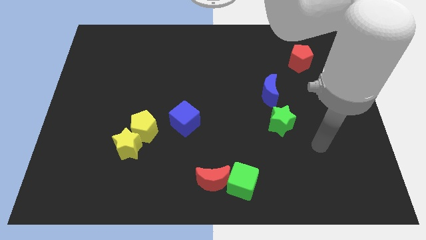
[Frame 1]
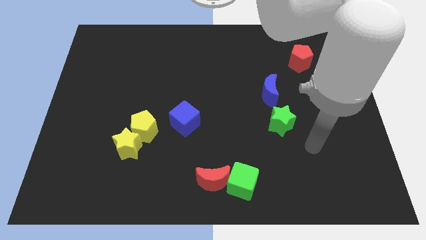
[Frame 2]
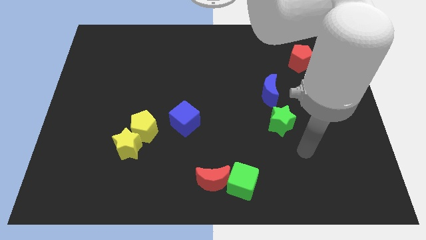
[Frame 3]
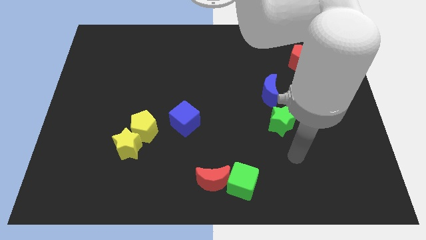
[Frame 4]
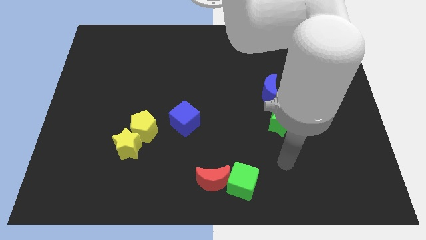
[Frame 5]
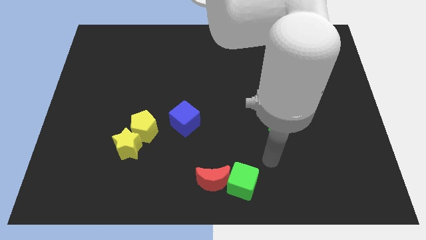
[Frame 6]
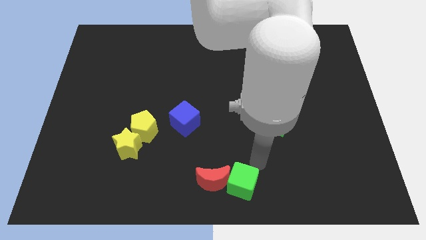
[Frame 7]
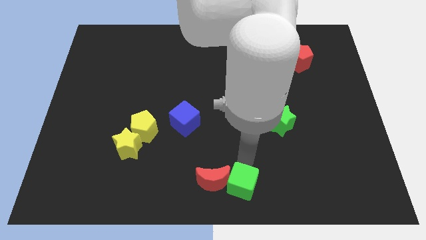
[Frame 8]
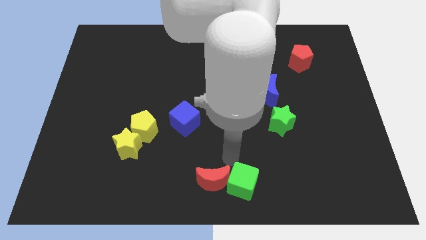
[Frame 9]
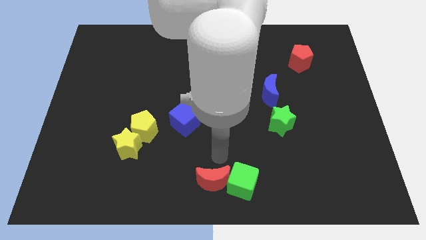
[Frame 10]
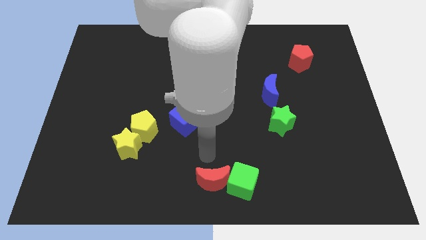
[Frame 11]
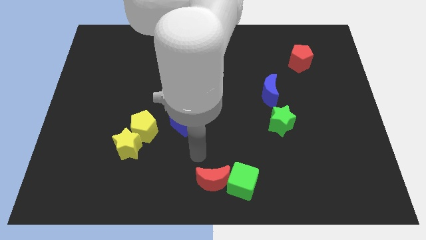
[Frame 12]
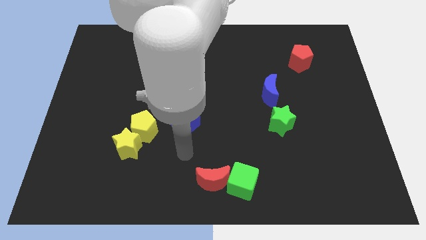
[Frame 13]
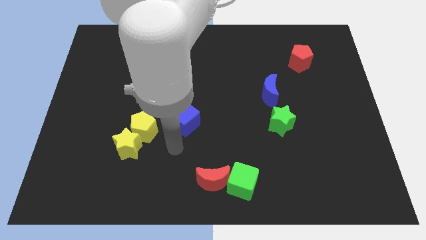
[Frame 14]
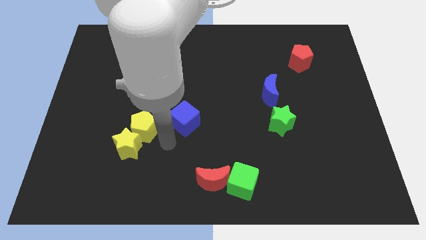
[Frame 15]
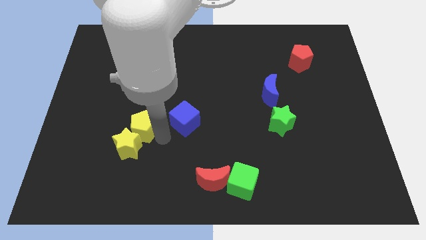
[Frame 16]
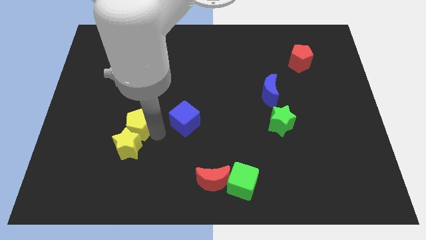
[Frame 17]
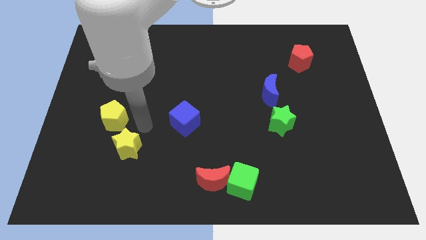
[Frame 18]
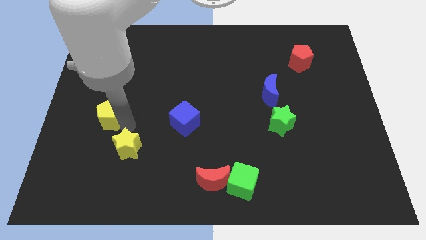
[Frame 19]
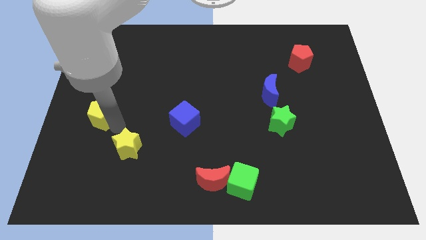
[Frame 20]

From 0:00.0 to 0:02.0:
move the yellow star away from the yellow pentagon

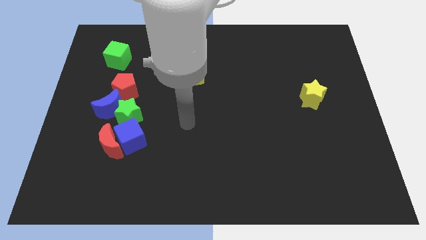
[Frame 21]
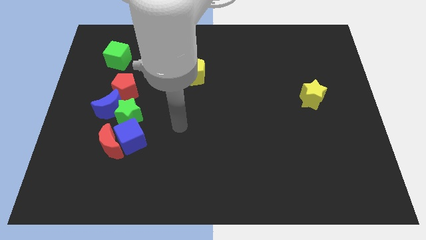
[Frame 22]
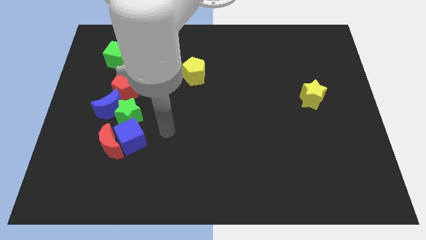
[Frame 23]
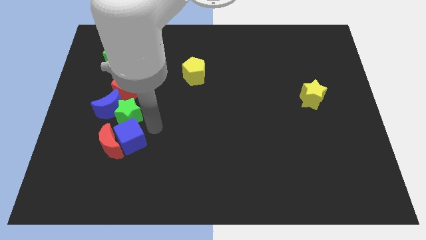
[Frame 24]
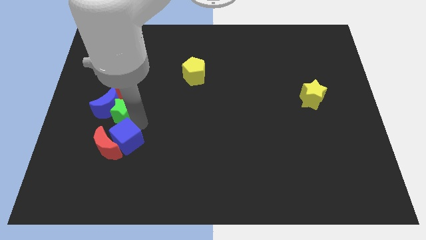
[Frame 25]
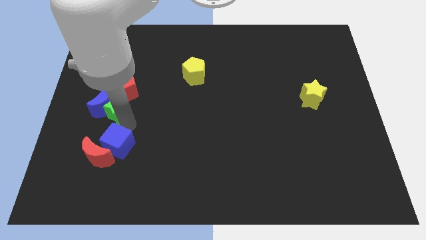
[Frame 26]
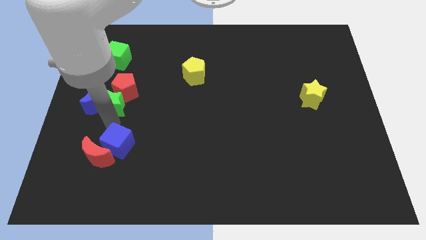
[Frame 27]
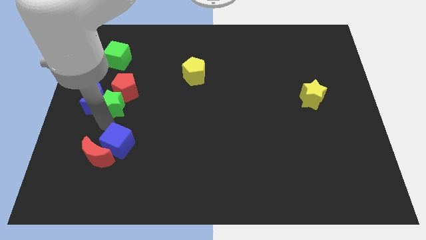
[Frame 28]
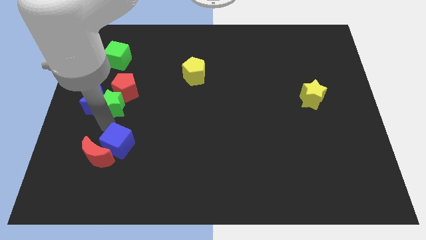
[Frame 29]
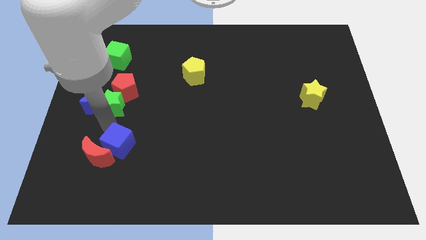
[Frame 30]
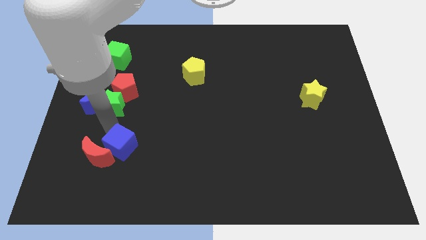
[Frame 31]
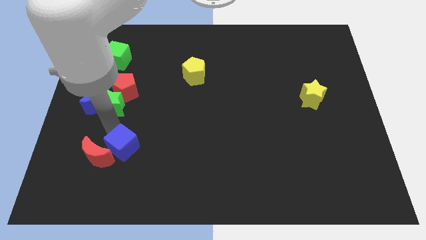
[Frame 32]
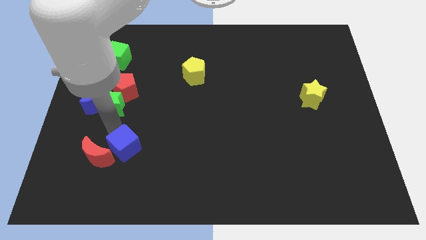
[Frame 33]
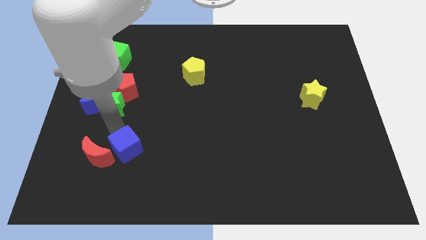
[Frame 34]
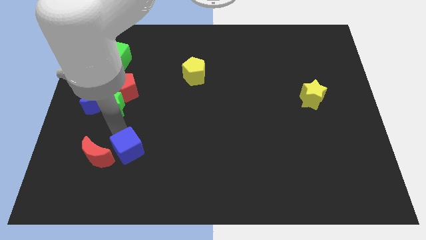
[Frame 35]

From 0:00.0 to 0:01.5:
pull the blue cube apart from the red moon, green star, and blue moon

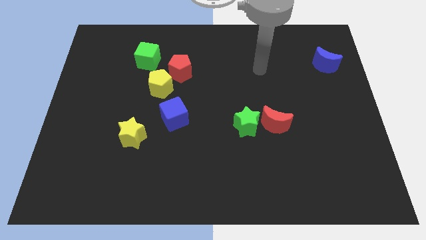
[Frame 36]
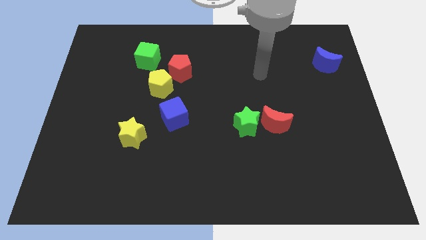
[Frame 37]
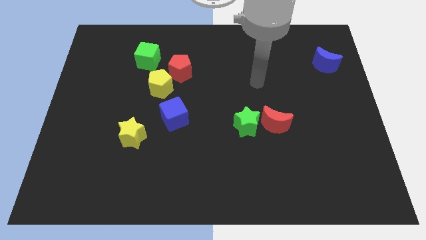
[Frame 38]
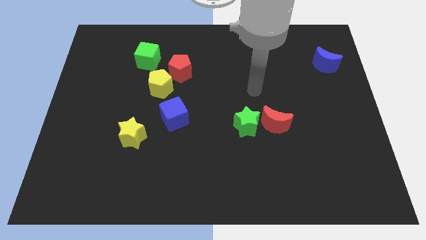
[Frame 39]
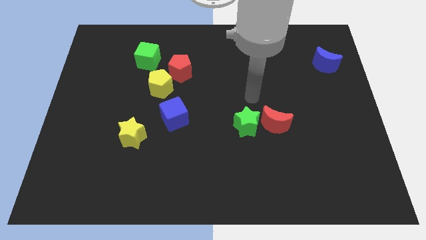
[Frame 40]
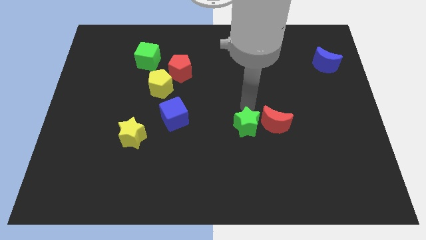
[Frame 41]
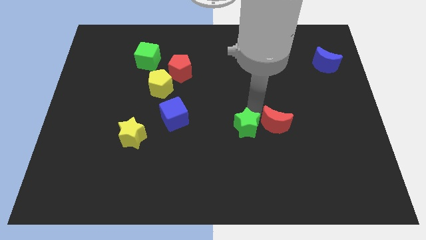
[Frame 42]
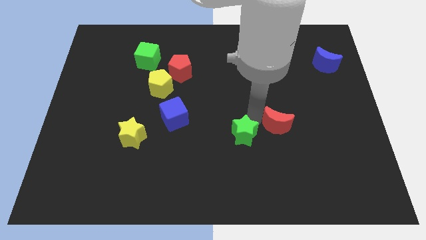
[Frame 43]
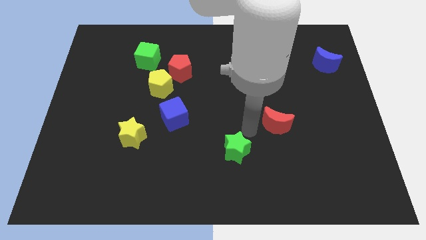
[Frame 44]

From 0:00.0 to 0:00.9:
pull the red moon apart from the green star

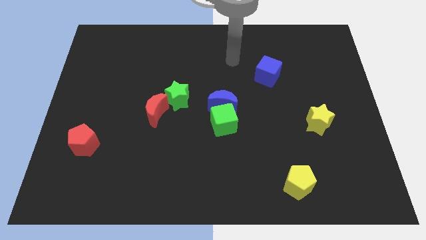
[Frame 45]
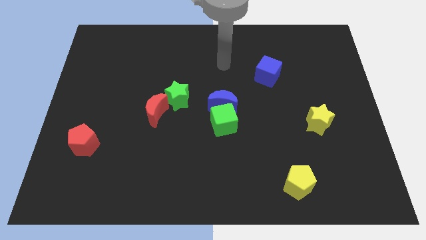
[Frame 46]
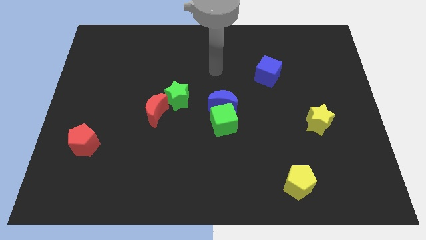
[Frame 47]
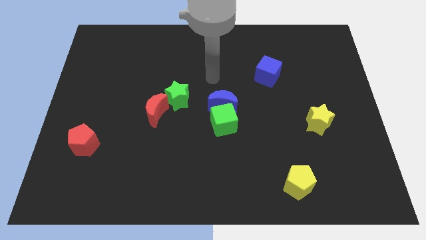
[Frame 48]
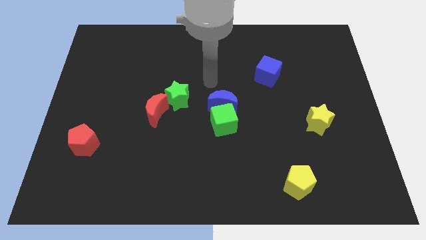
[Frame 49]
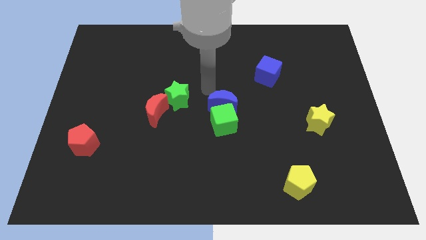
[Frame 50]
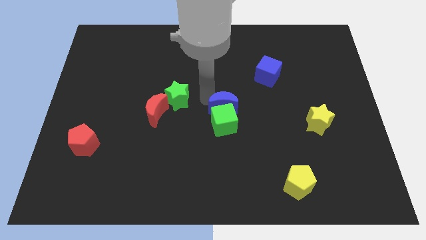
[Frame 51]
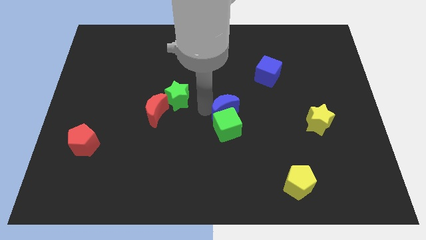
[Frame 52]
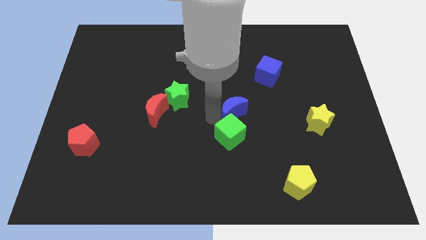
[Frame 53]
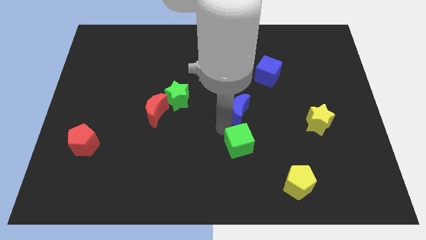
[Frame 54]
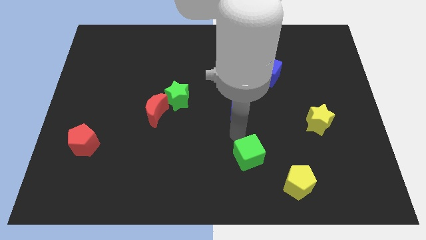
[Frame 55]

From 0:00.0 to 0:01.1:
move the blue moon away from the green cube

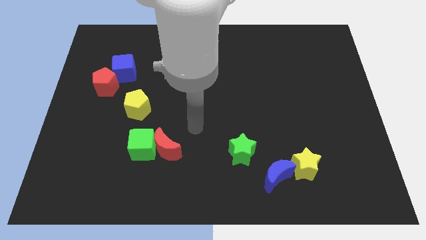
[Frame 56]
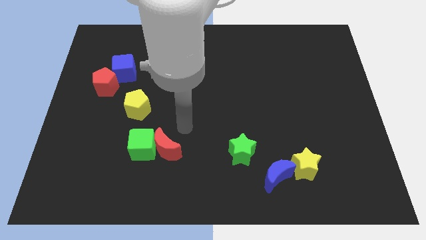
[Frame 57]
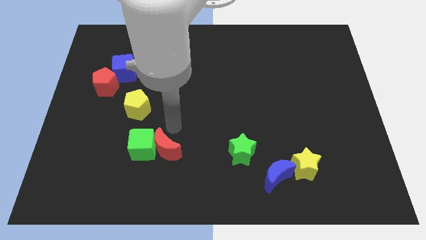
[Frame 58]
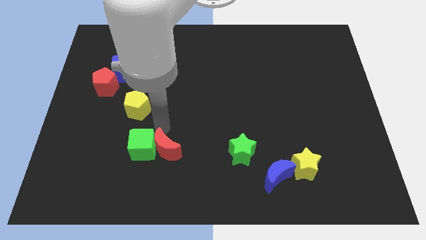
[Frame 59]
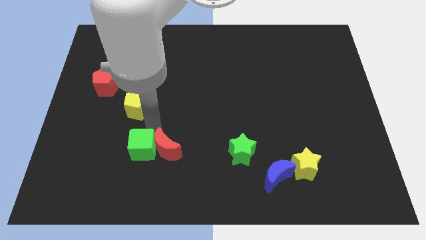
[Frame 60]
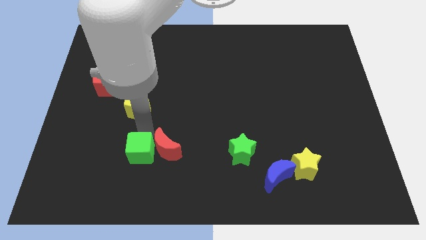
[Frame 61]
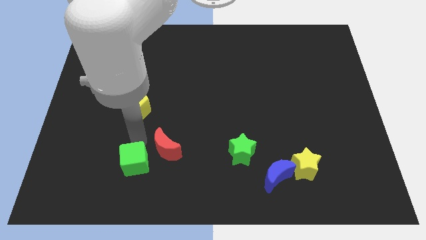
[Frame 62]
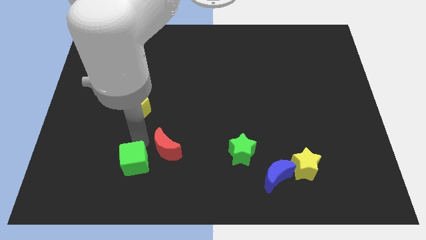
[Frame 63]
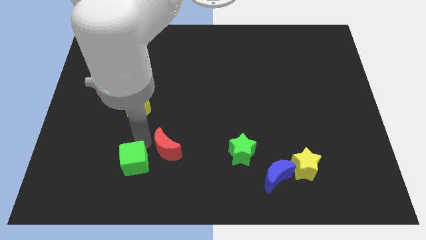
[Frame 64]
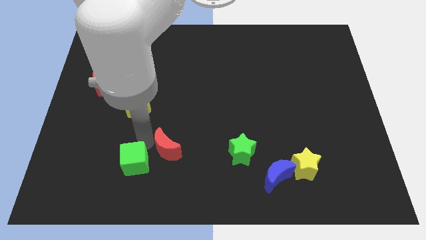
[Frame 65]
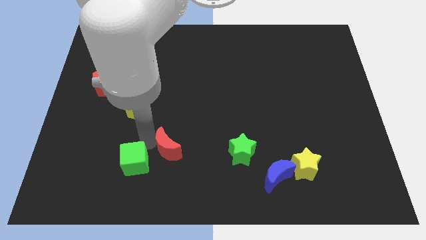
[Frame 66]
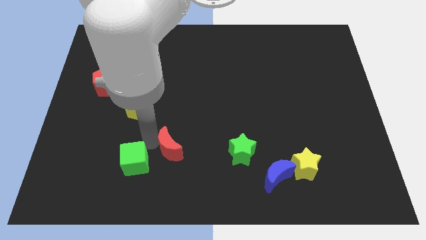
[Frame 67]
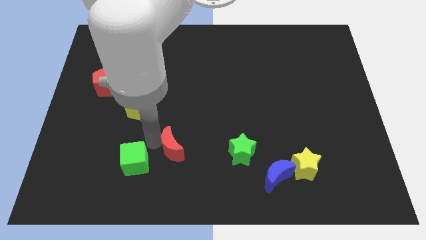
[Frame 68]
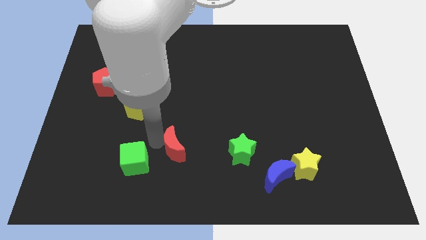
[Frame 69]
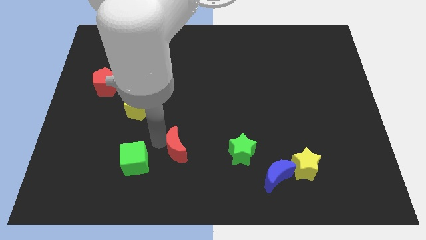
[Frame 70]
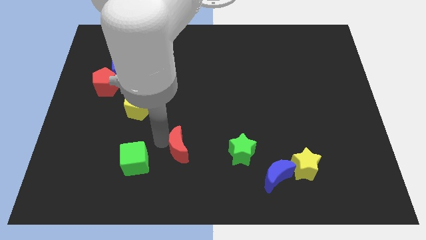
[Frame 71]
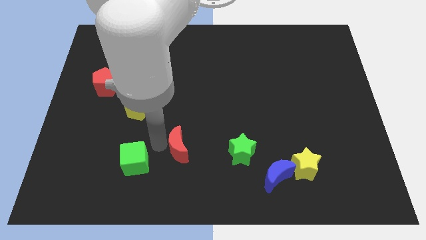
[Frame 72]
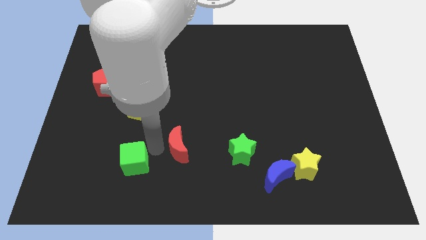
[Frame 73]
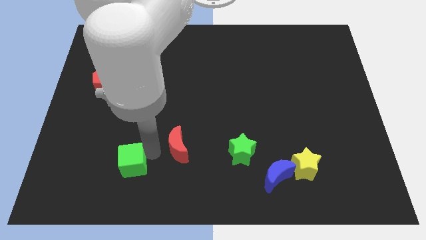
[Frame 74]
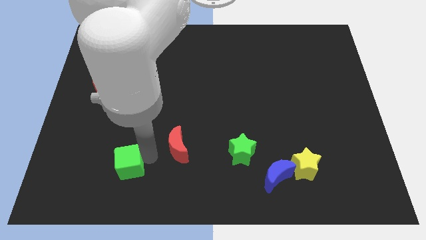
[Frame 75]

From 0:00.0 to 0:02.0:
separate the red moon from the green cube

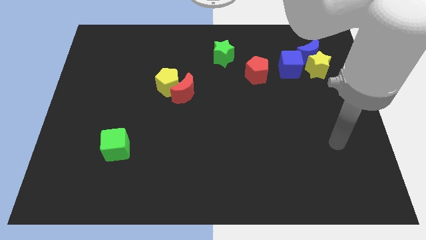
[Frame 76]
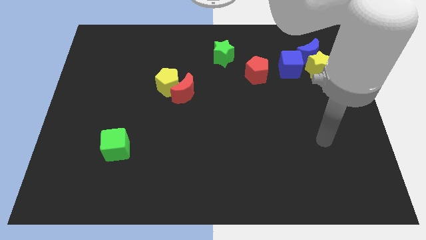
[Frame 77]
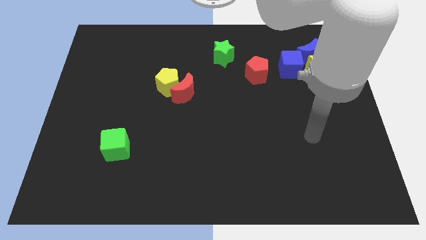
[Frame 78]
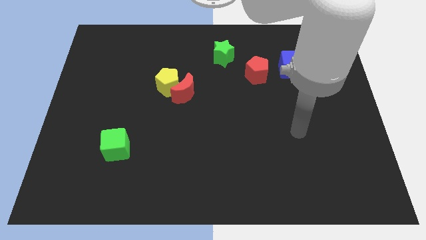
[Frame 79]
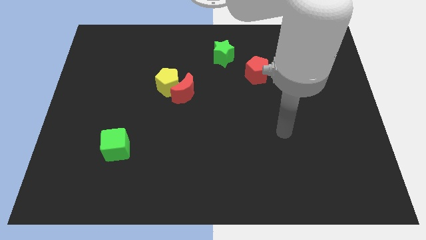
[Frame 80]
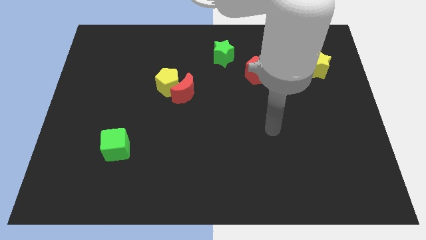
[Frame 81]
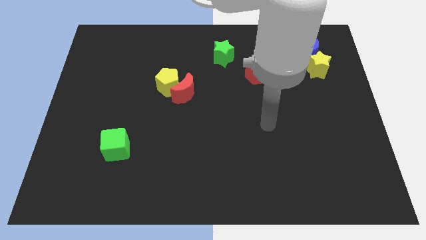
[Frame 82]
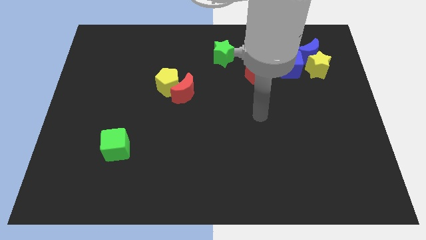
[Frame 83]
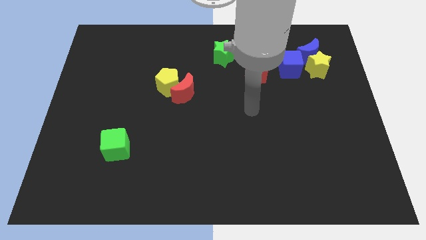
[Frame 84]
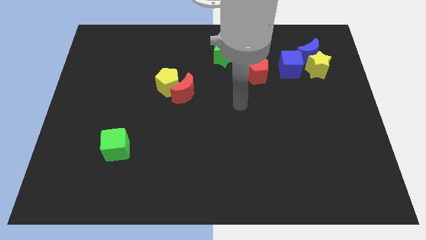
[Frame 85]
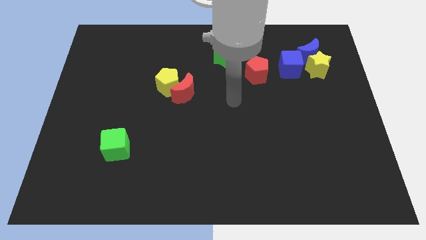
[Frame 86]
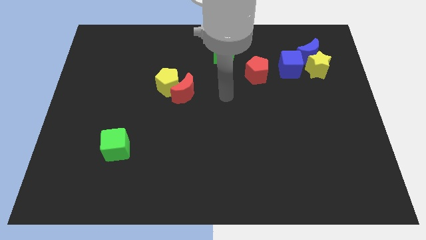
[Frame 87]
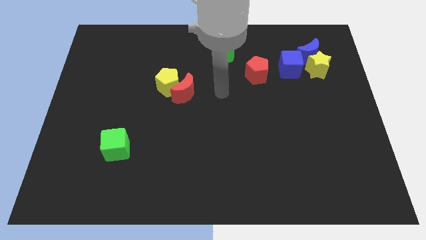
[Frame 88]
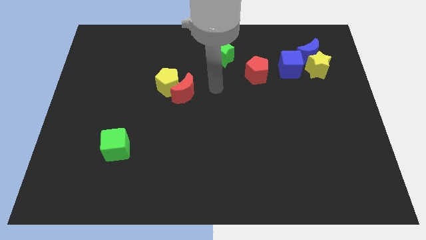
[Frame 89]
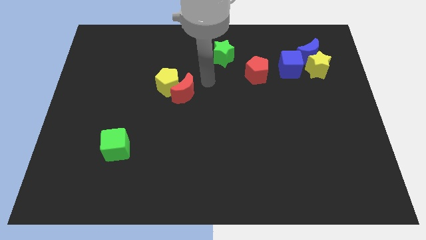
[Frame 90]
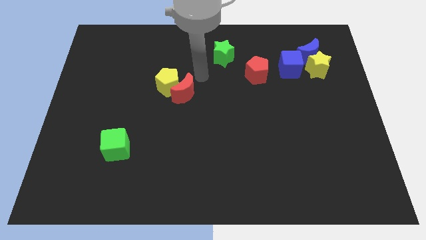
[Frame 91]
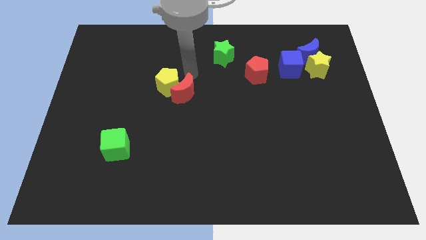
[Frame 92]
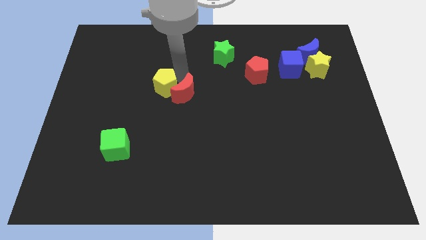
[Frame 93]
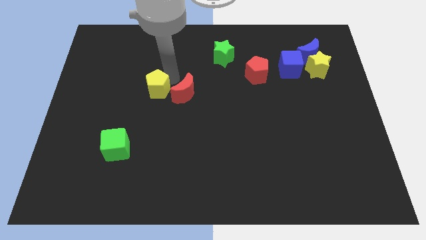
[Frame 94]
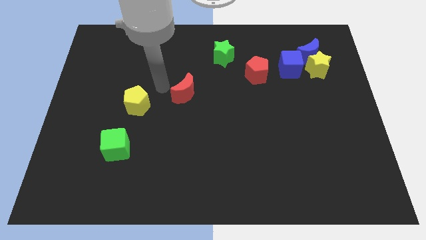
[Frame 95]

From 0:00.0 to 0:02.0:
pull the red moon apart from the yellow pentagon
